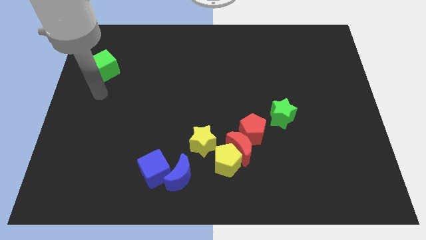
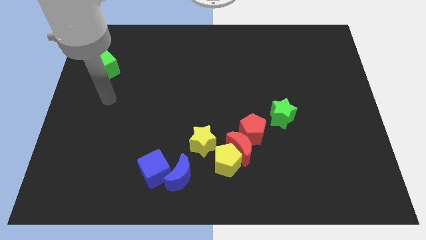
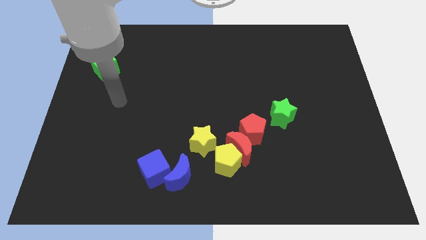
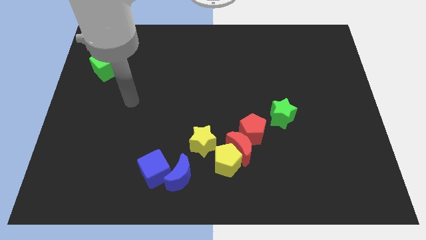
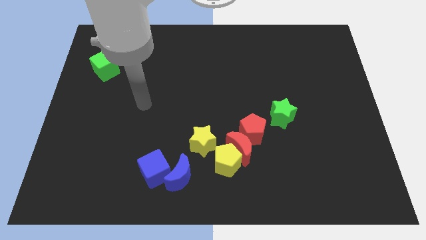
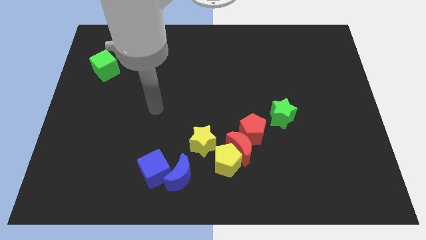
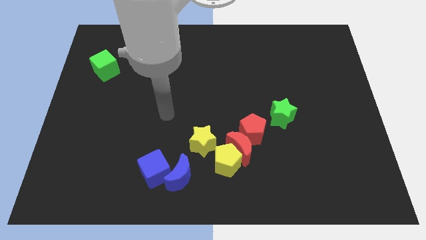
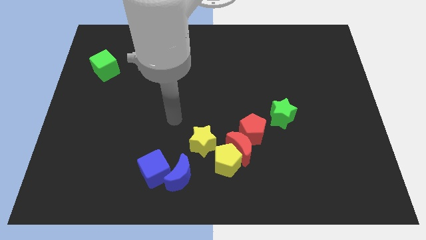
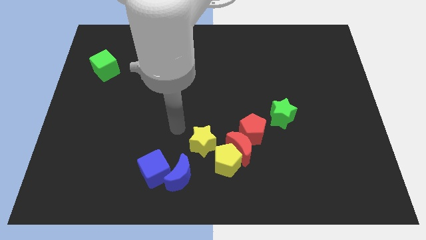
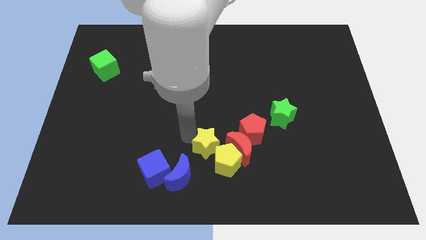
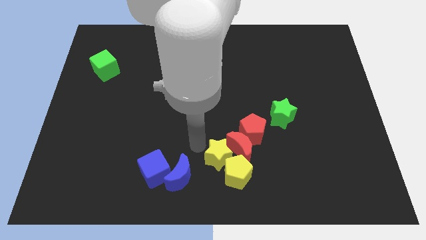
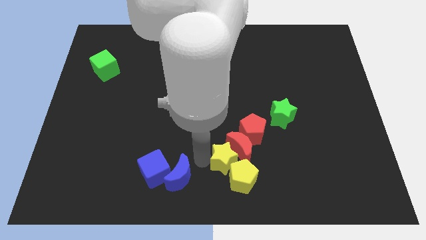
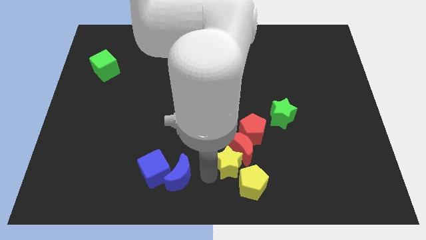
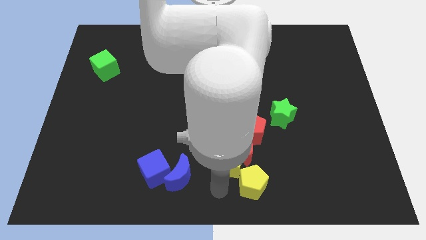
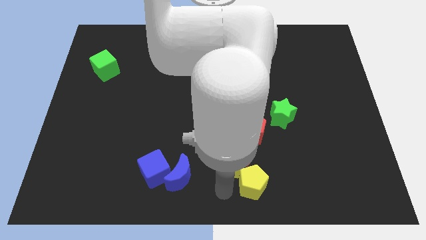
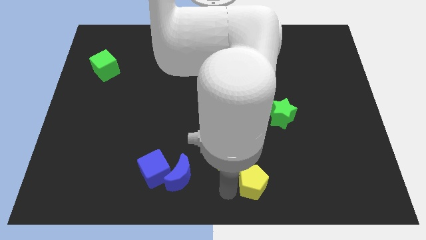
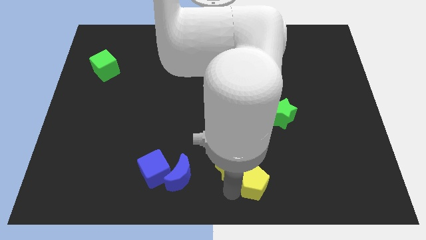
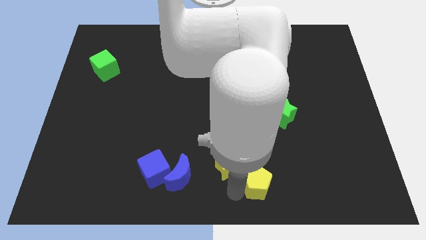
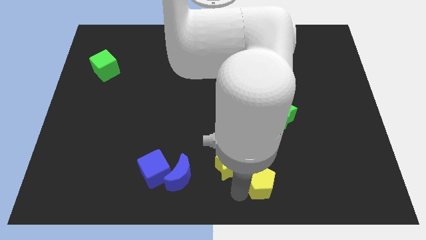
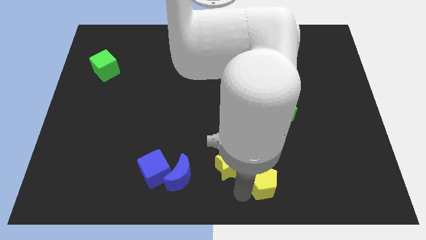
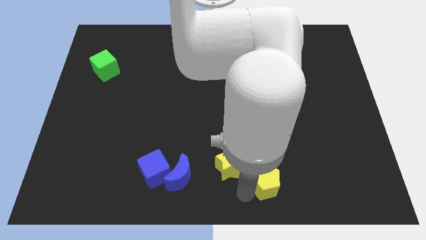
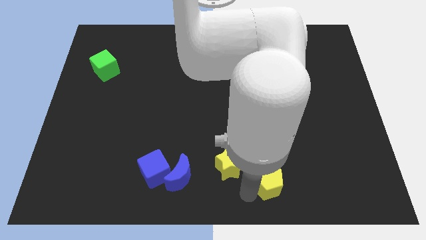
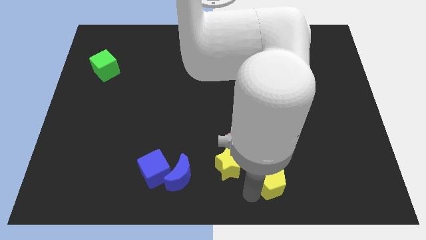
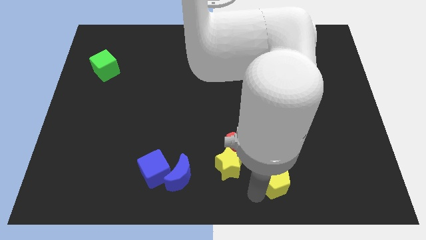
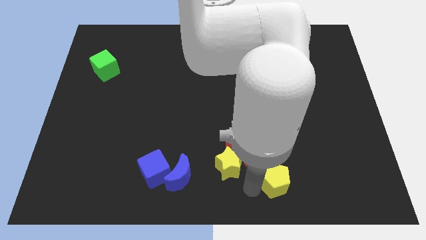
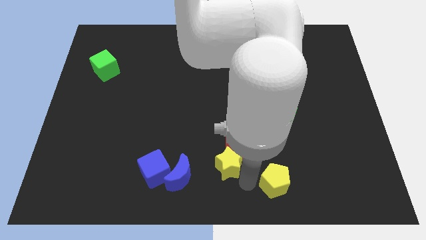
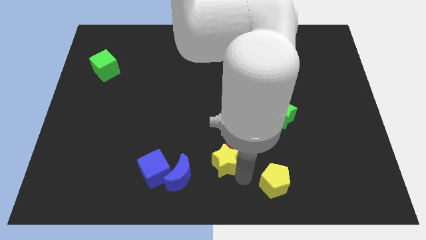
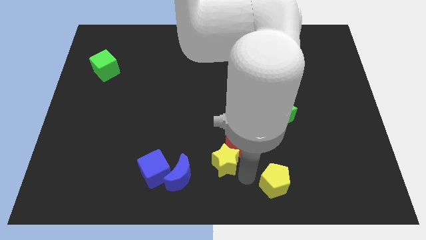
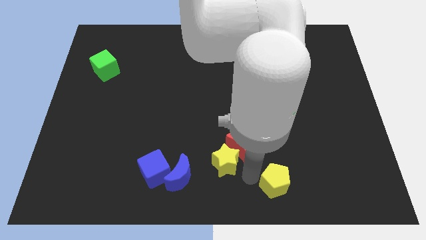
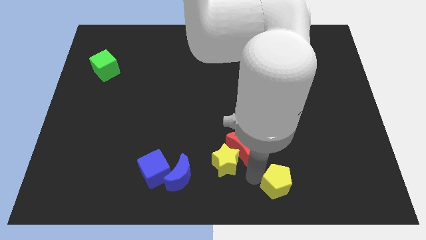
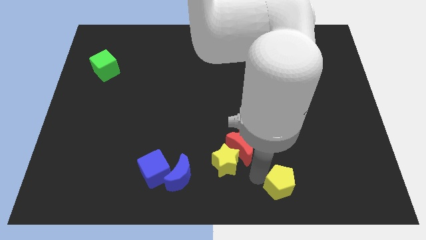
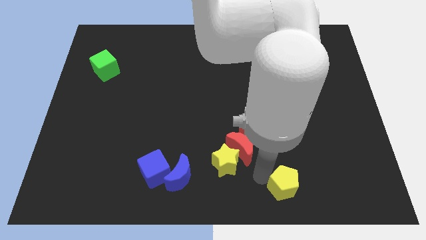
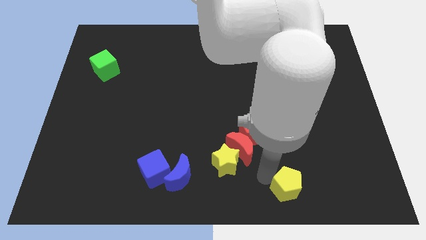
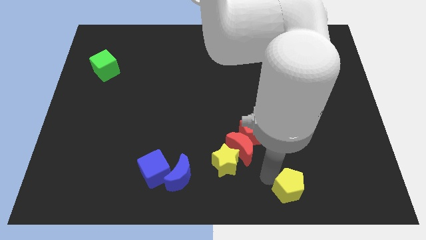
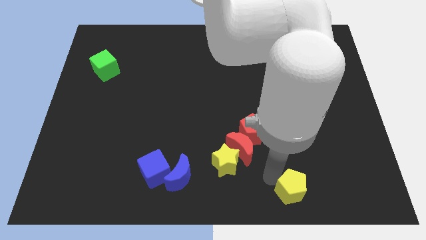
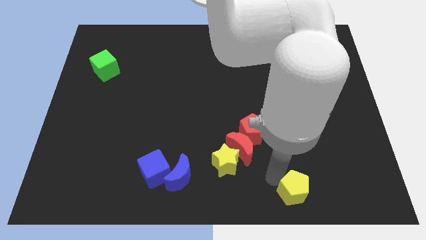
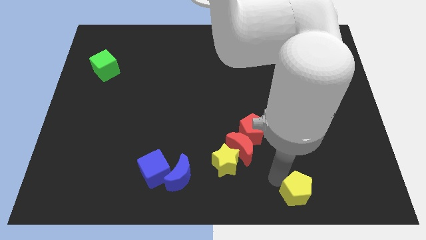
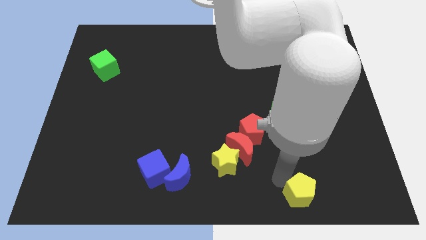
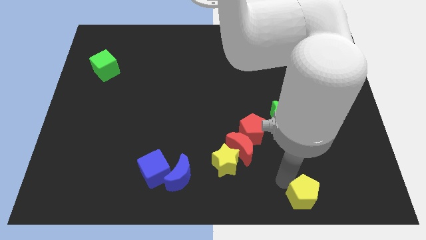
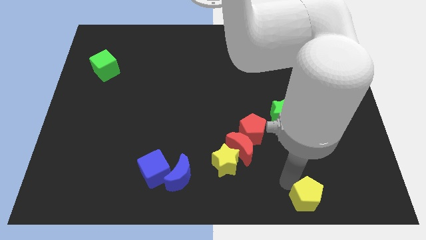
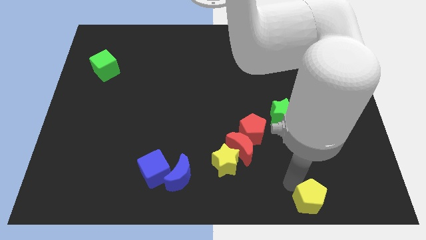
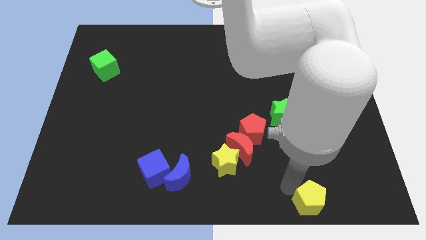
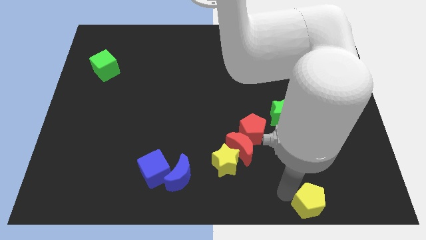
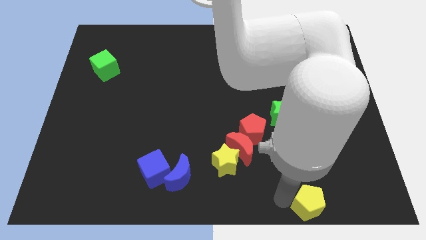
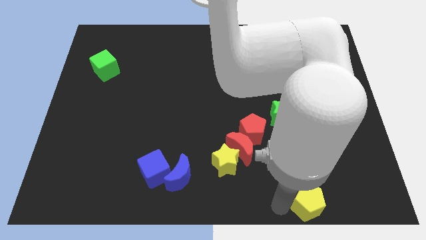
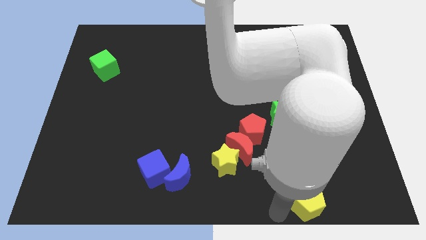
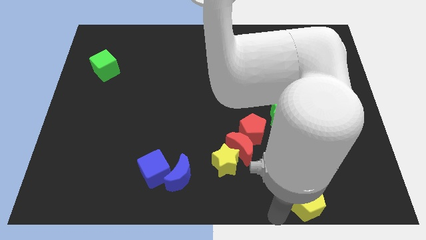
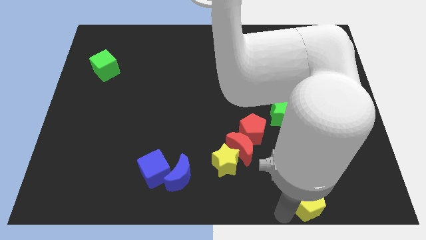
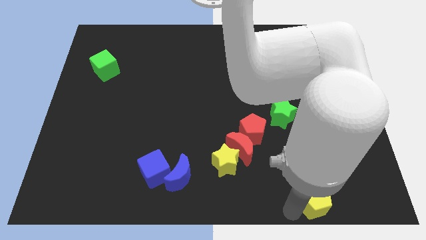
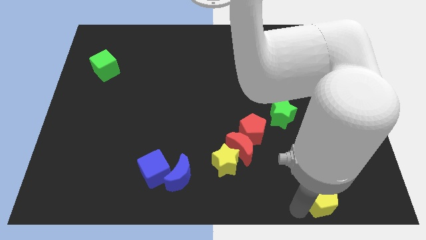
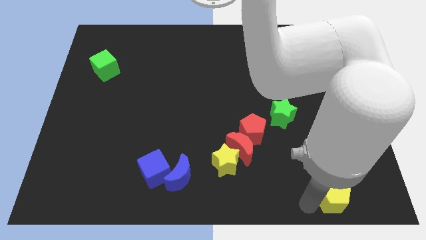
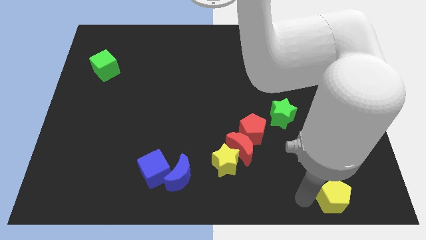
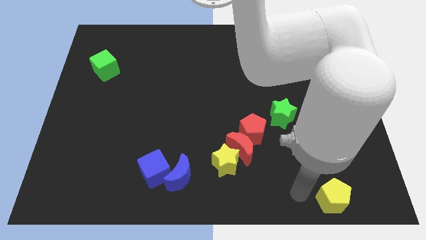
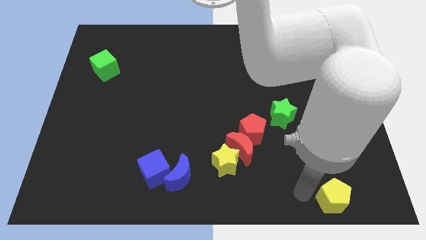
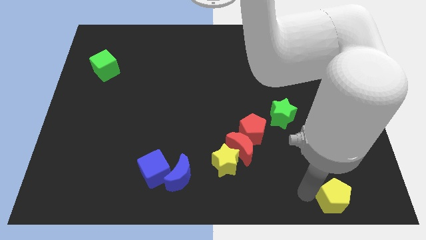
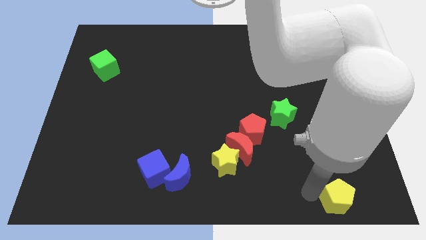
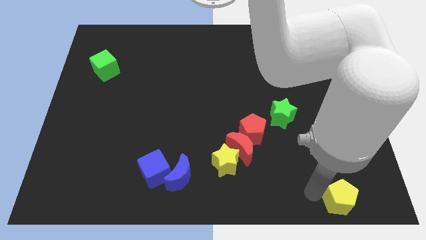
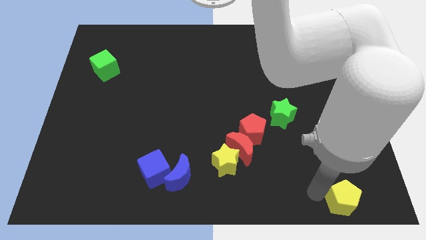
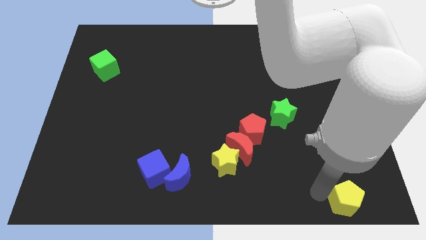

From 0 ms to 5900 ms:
move the yellow pentagon to the bottom right corner

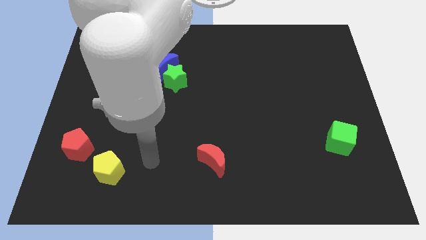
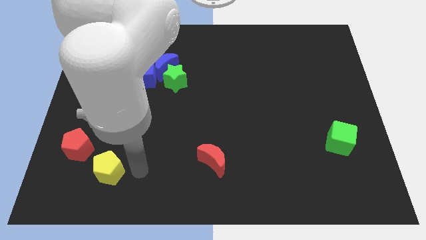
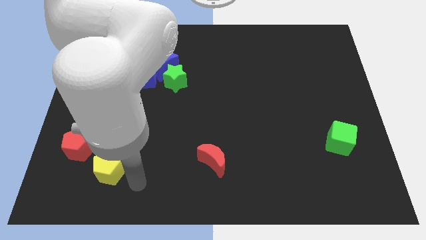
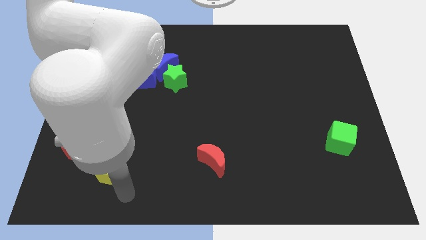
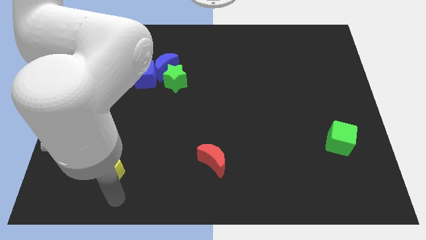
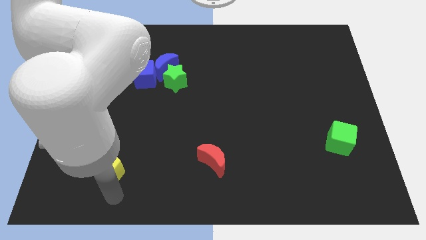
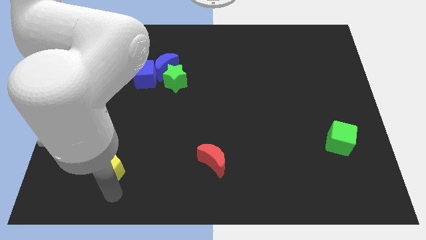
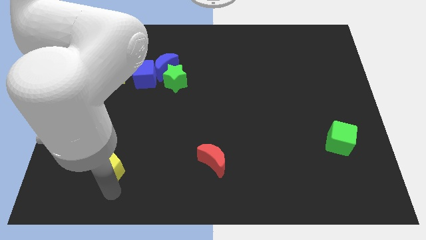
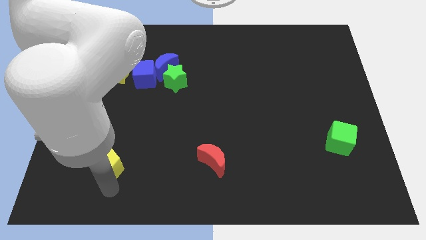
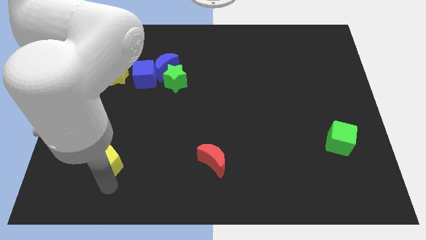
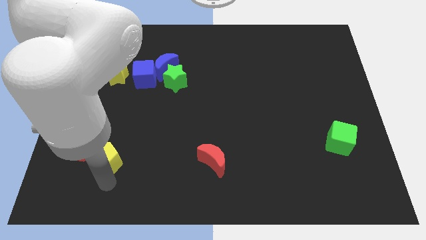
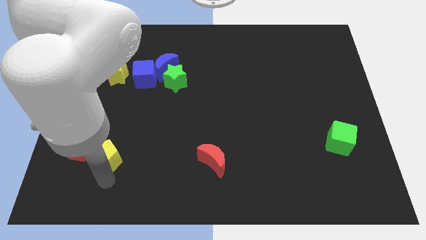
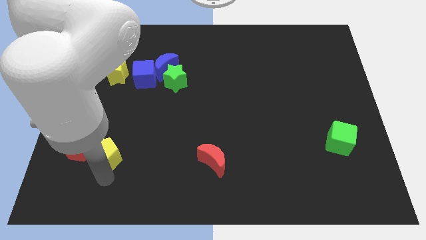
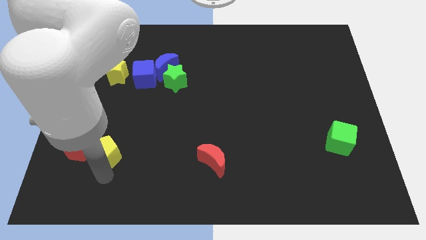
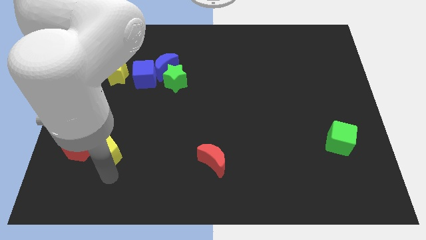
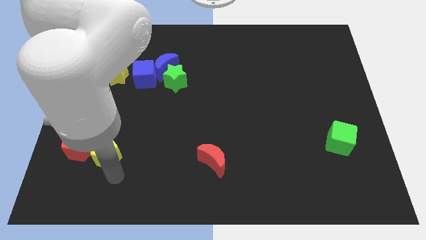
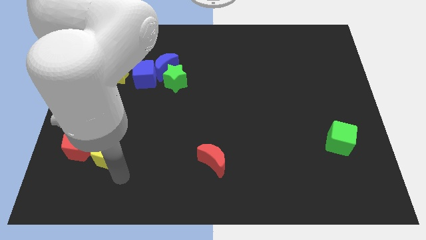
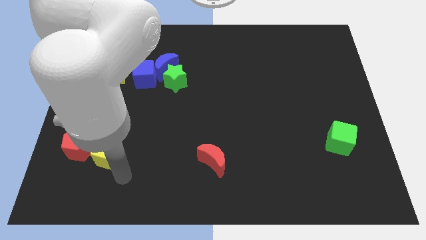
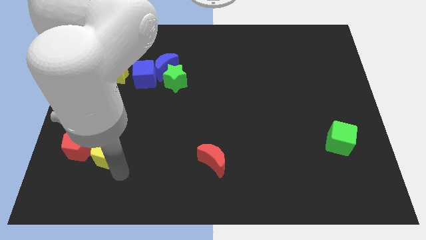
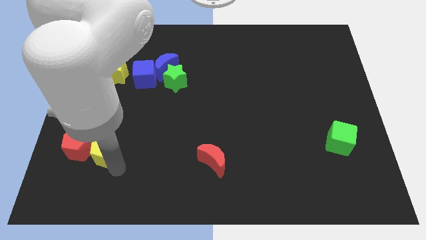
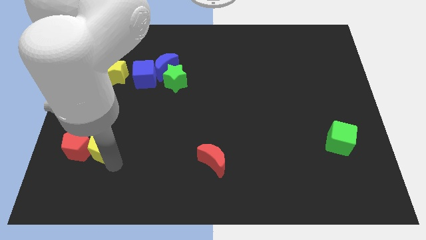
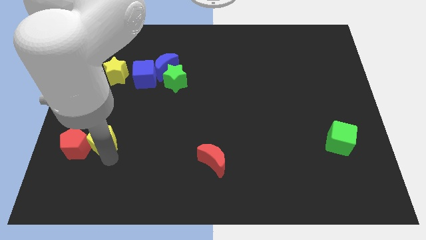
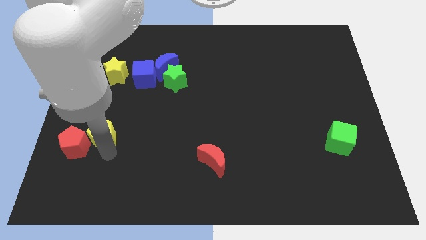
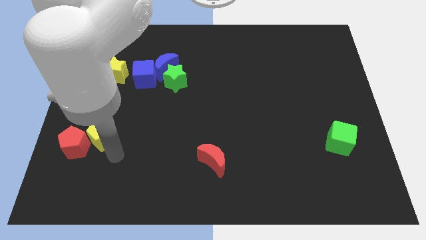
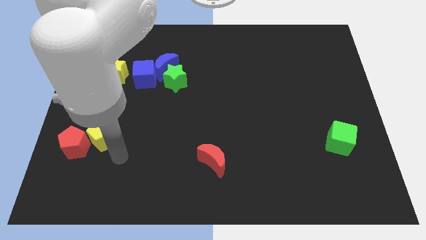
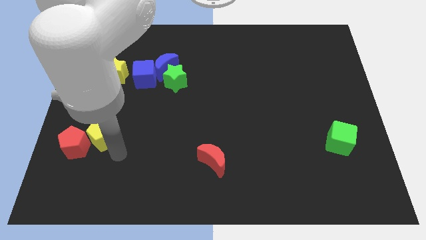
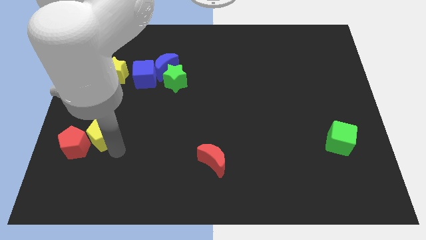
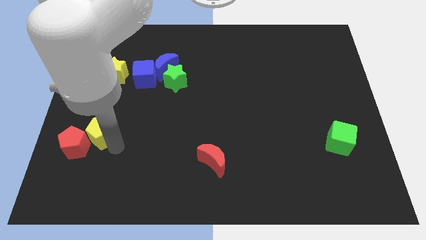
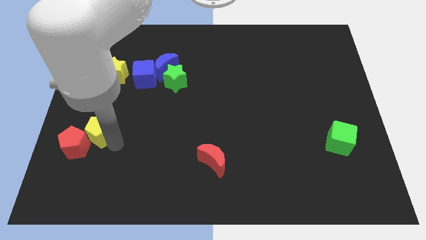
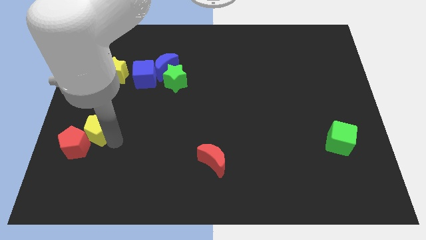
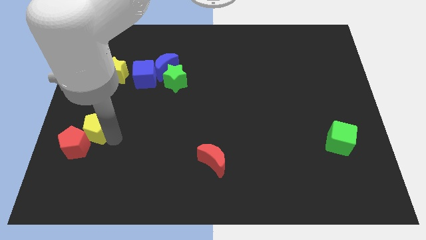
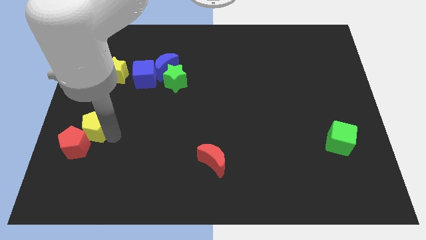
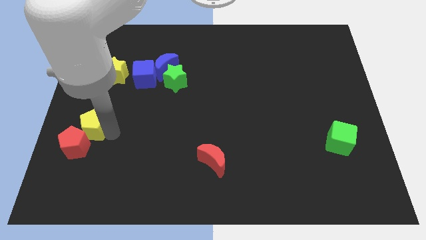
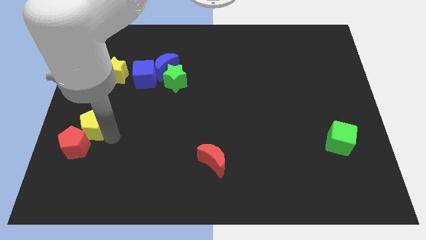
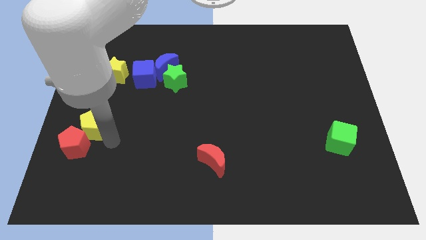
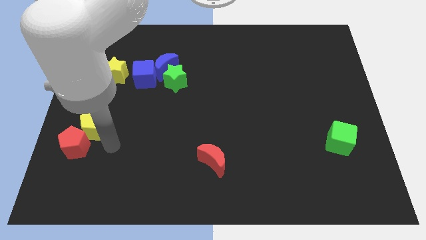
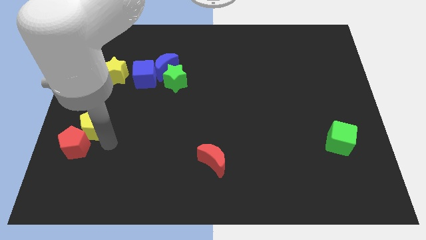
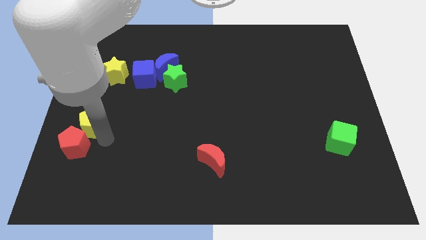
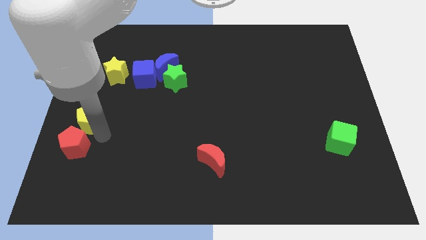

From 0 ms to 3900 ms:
slide the yellow pentagon to the center left
